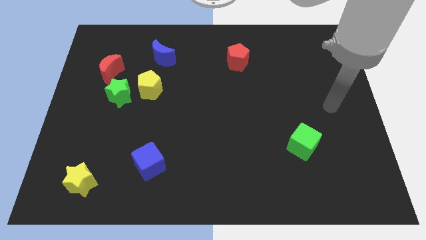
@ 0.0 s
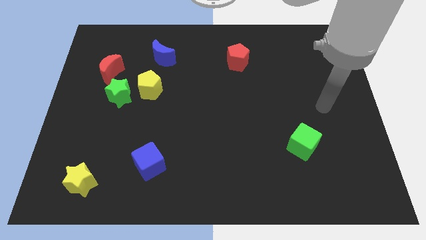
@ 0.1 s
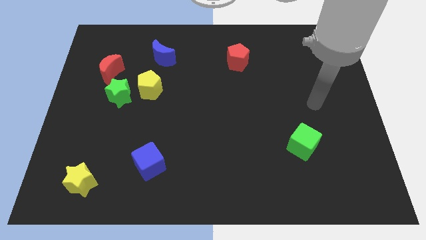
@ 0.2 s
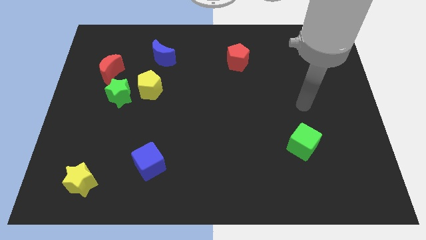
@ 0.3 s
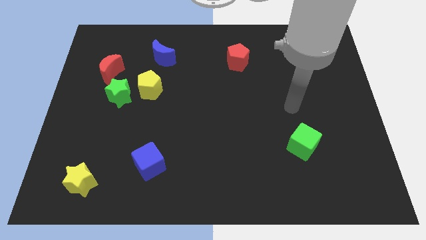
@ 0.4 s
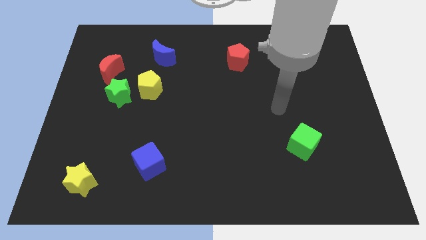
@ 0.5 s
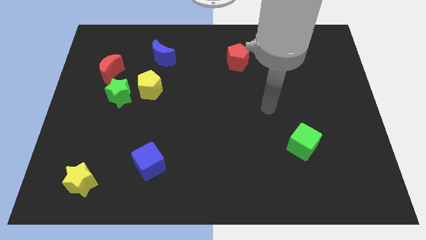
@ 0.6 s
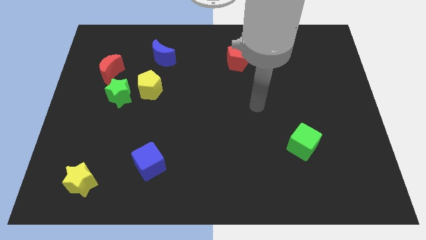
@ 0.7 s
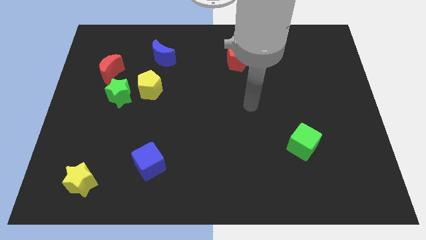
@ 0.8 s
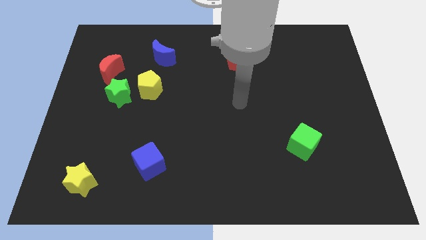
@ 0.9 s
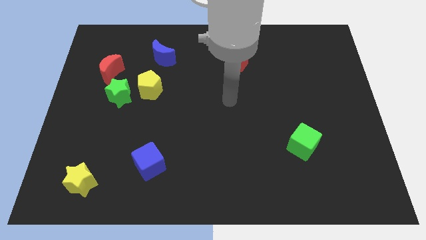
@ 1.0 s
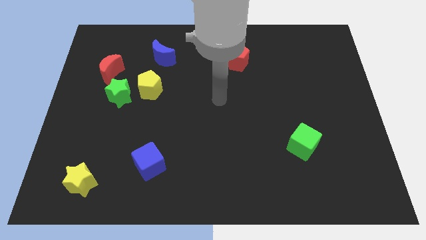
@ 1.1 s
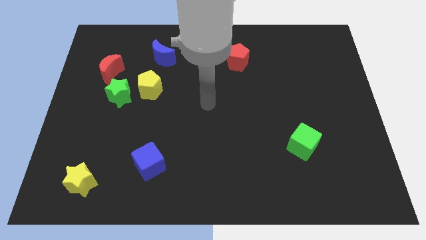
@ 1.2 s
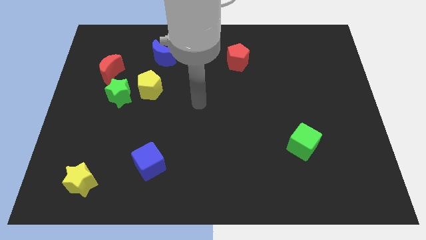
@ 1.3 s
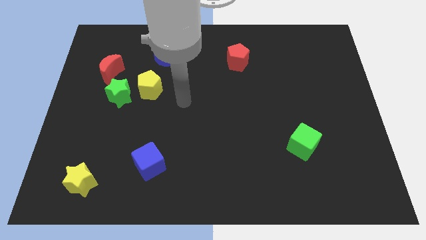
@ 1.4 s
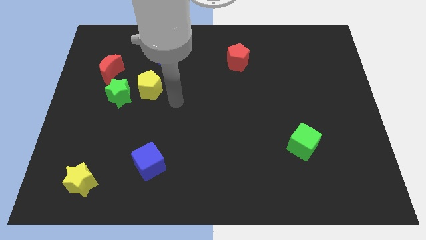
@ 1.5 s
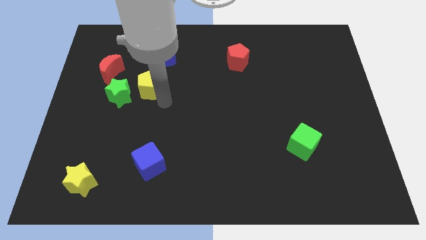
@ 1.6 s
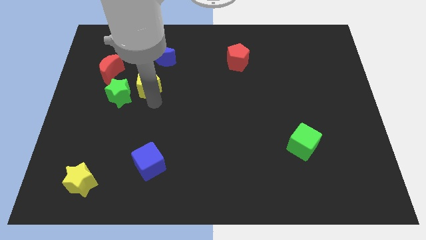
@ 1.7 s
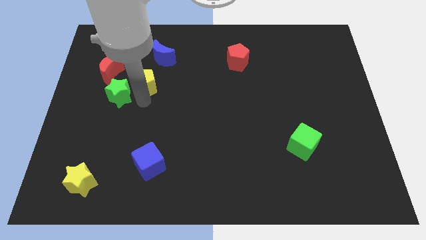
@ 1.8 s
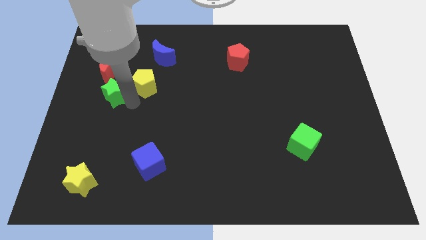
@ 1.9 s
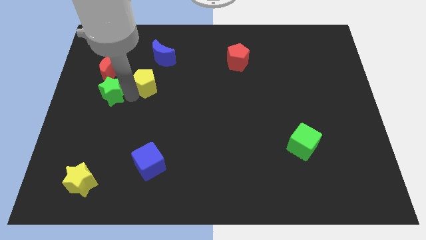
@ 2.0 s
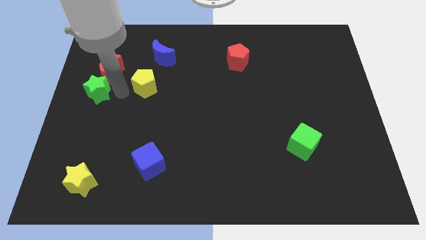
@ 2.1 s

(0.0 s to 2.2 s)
move the yellow pentagon away from the green star

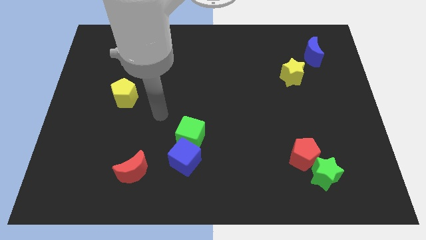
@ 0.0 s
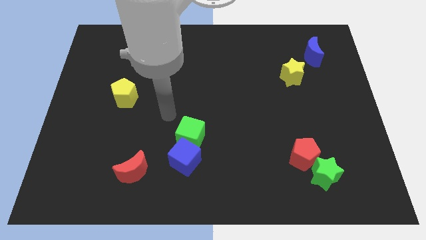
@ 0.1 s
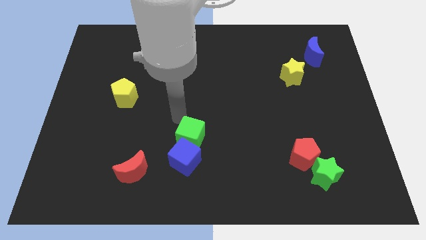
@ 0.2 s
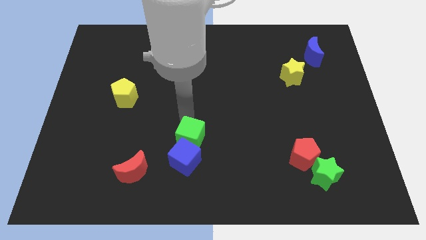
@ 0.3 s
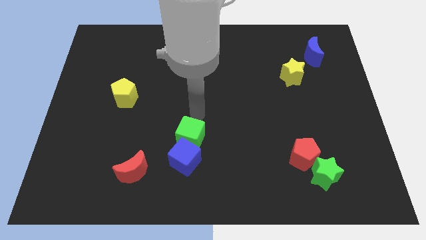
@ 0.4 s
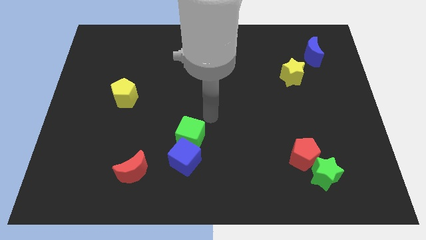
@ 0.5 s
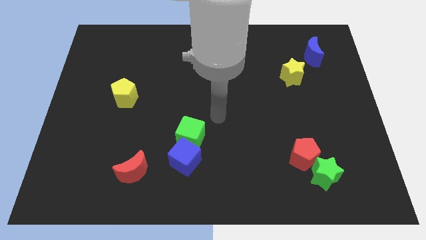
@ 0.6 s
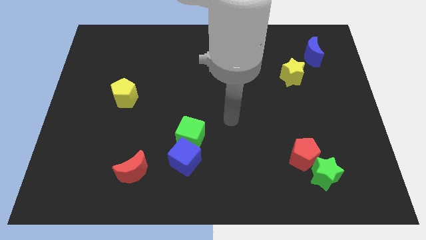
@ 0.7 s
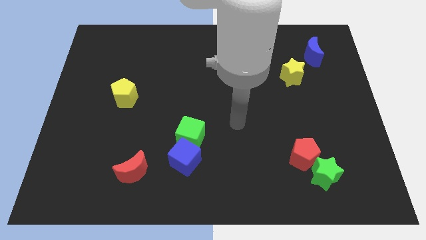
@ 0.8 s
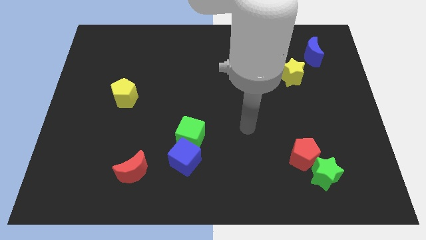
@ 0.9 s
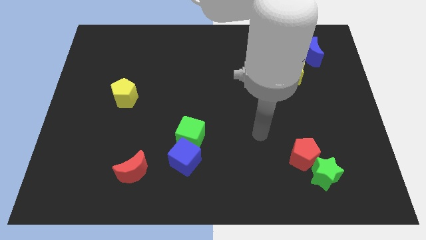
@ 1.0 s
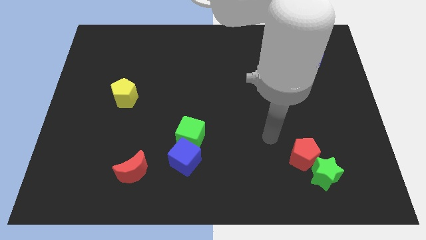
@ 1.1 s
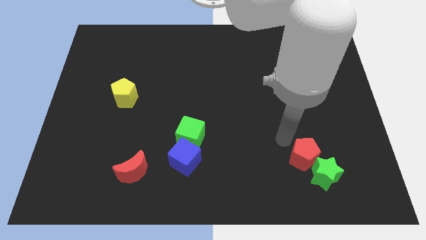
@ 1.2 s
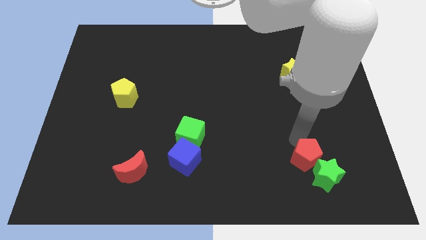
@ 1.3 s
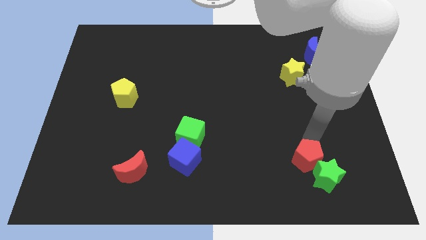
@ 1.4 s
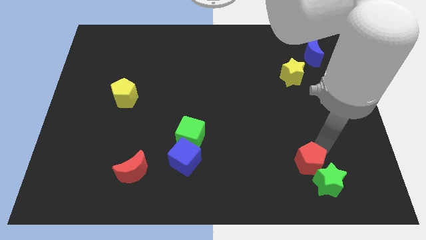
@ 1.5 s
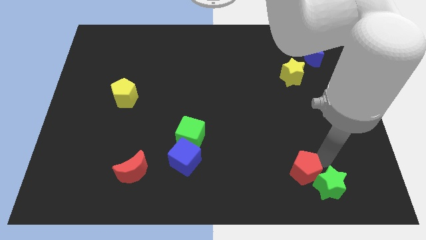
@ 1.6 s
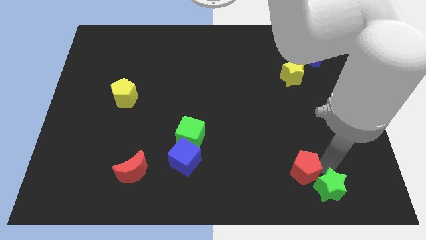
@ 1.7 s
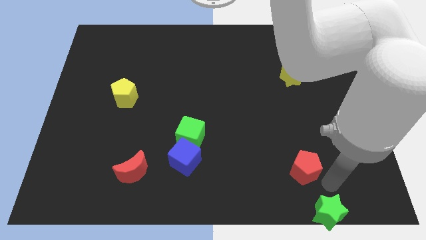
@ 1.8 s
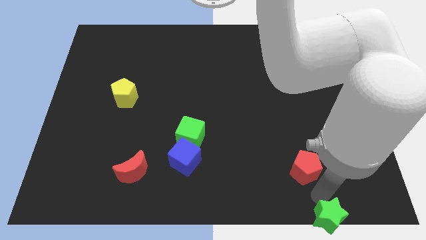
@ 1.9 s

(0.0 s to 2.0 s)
separate the red pentagon from the green star

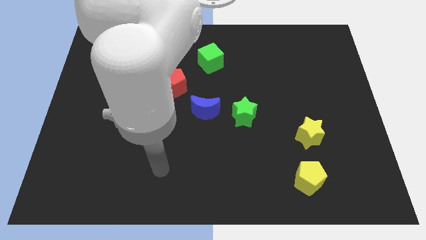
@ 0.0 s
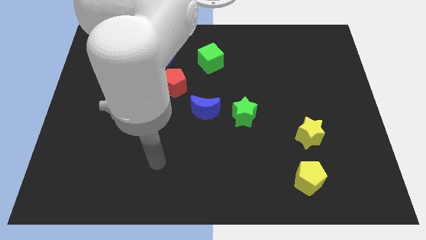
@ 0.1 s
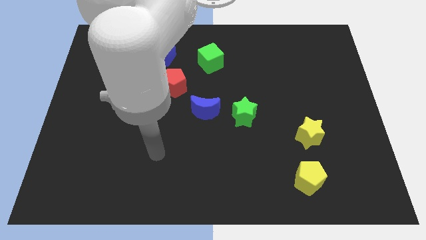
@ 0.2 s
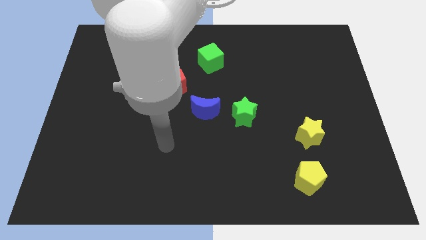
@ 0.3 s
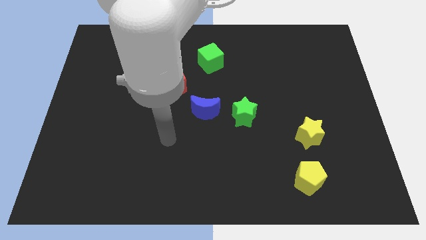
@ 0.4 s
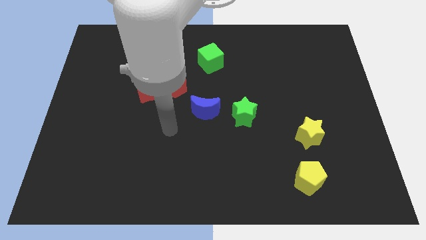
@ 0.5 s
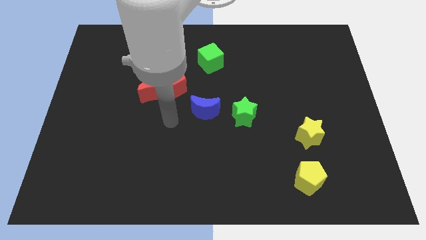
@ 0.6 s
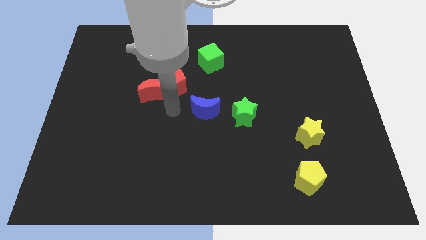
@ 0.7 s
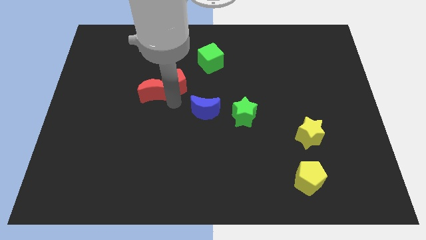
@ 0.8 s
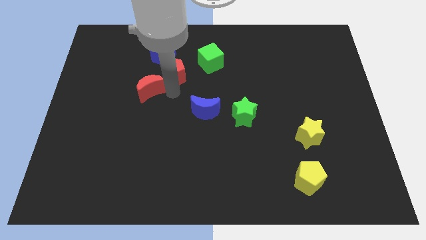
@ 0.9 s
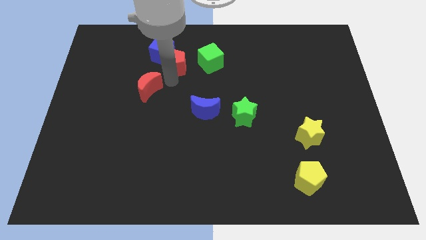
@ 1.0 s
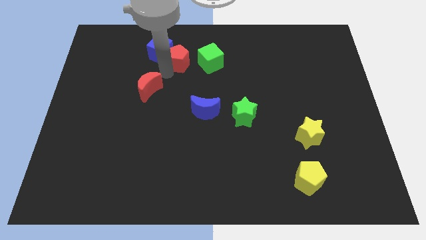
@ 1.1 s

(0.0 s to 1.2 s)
pull the red moon apart from the red pentagon

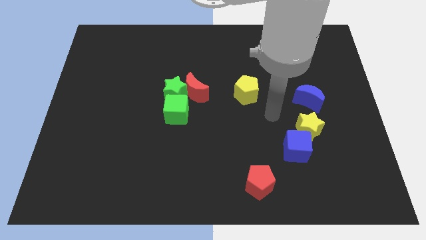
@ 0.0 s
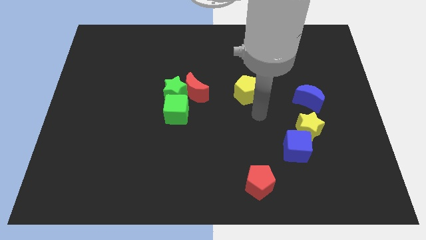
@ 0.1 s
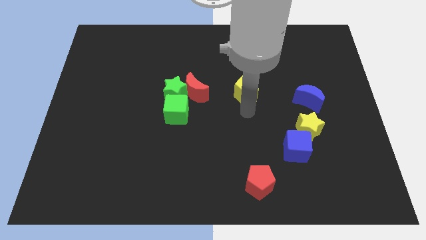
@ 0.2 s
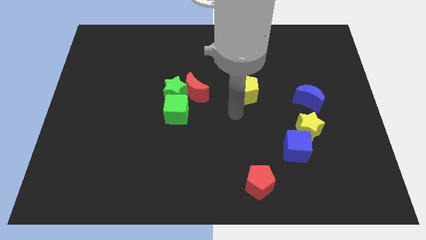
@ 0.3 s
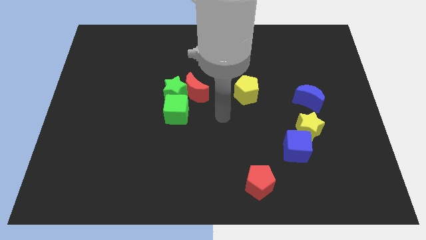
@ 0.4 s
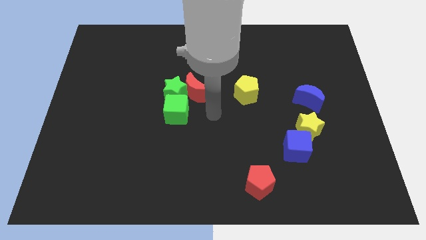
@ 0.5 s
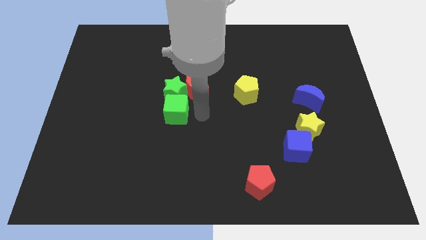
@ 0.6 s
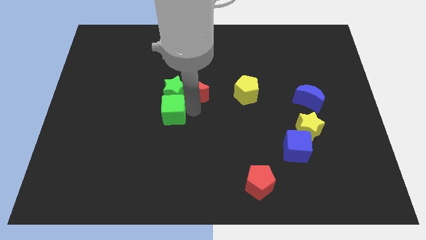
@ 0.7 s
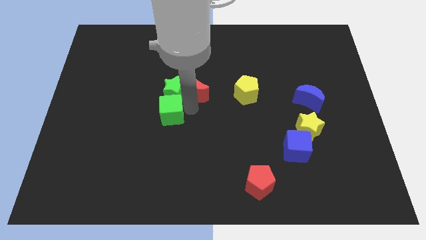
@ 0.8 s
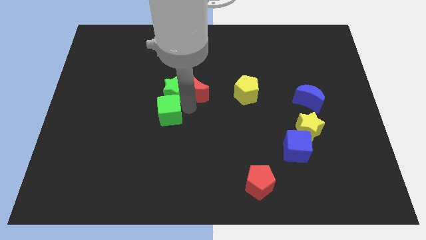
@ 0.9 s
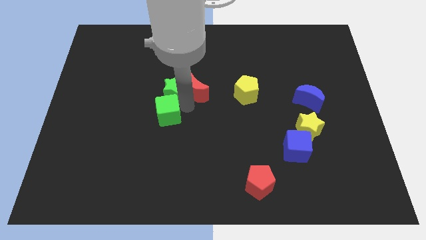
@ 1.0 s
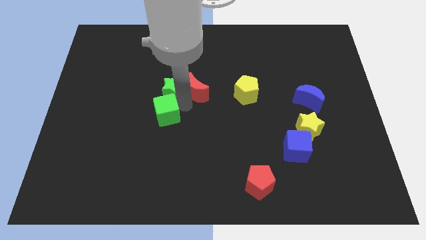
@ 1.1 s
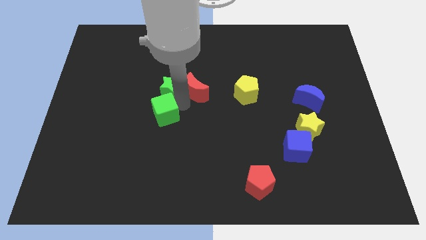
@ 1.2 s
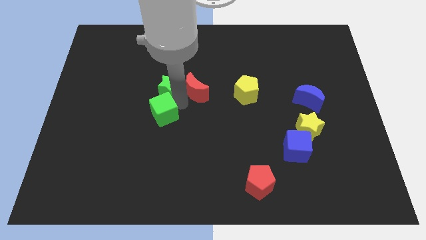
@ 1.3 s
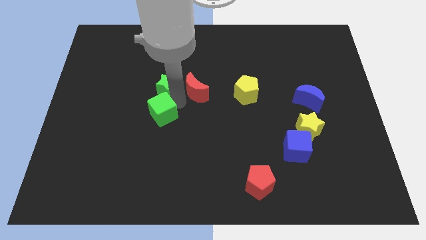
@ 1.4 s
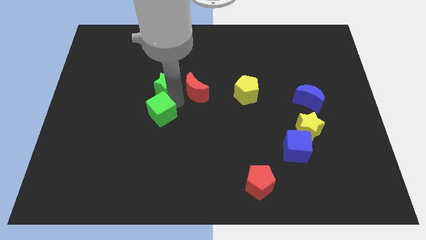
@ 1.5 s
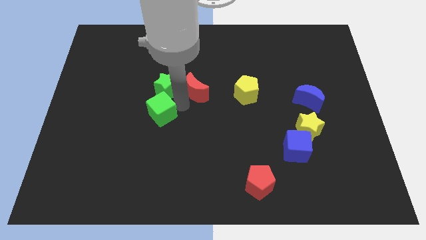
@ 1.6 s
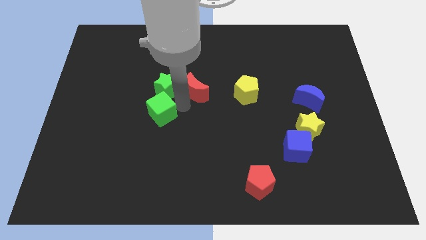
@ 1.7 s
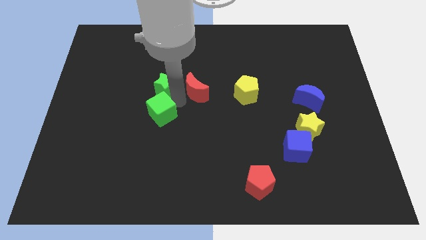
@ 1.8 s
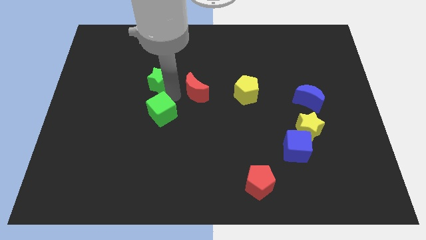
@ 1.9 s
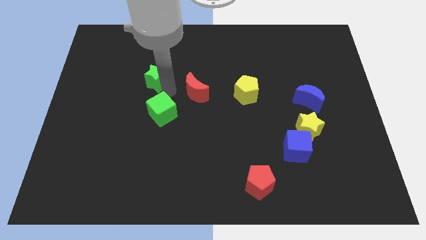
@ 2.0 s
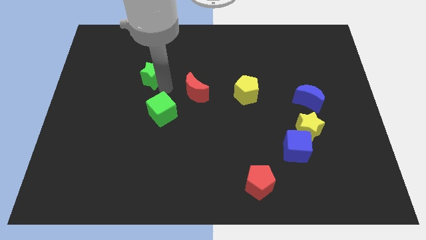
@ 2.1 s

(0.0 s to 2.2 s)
separate the green star from the red moon and green cube

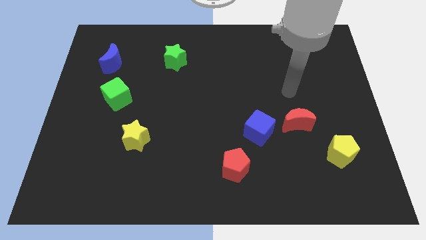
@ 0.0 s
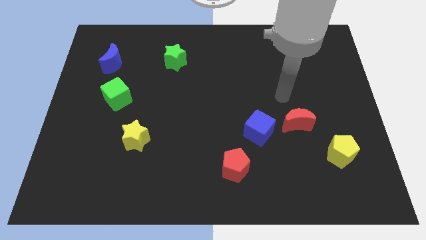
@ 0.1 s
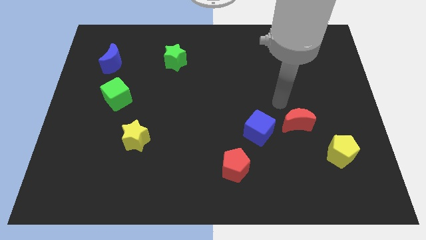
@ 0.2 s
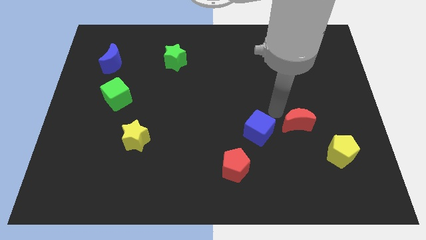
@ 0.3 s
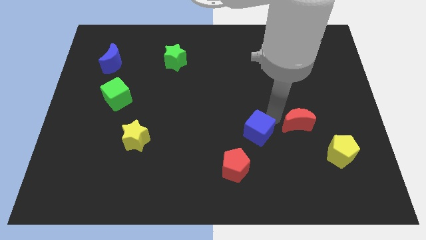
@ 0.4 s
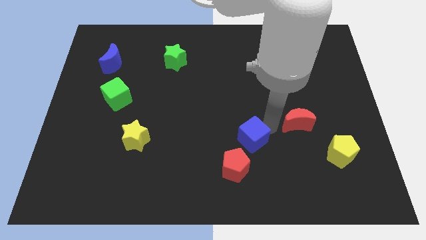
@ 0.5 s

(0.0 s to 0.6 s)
move the red moon away from the blue cube

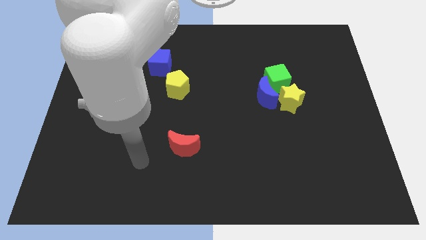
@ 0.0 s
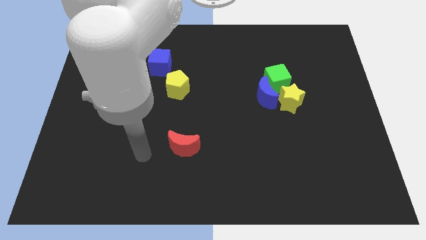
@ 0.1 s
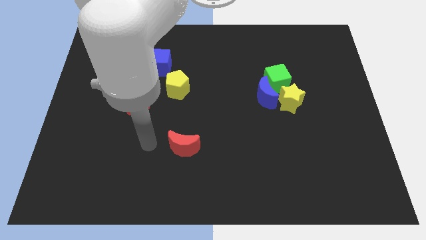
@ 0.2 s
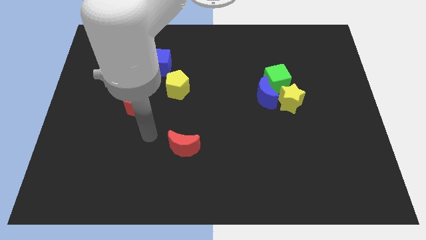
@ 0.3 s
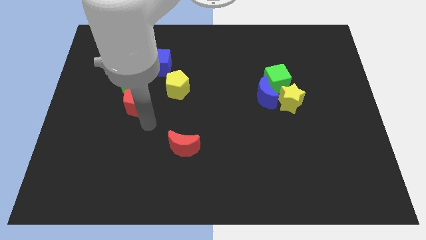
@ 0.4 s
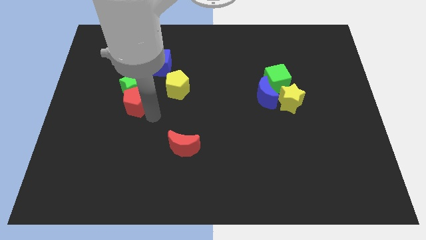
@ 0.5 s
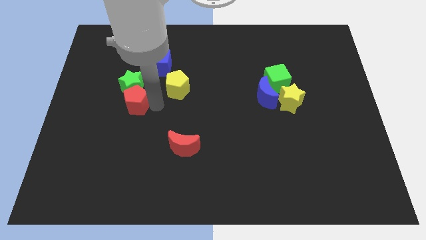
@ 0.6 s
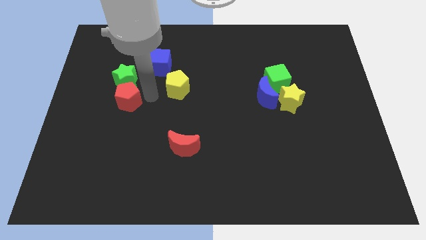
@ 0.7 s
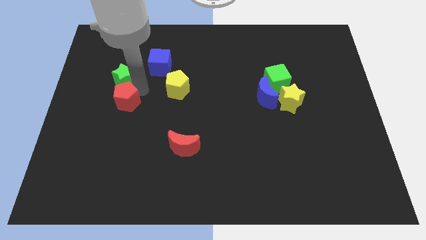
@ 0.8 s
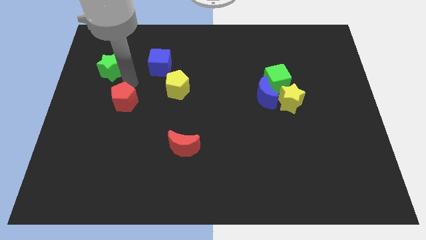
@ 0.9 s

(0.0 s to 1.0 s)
move the red pentagon away from the green star

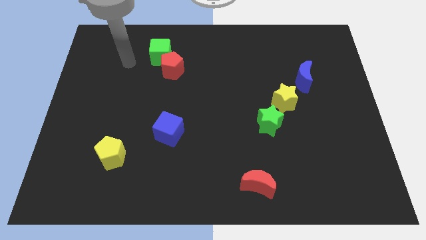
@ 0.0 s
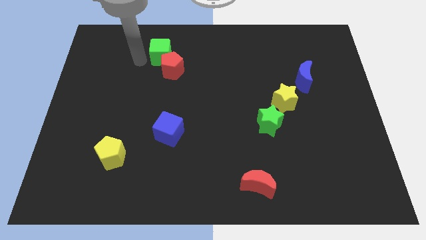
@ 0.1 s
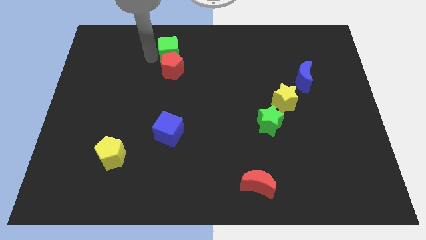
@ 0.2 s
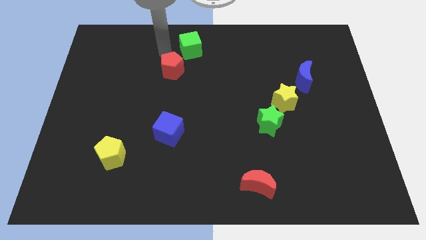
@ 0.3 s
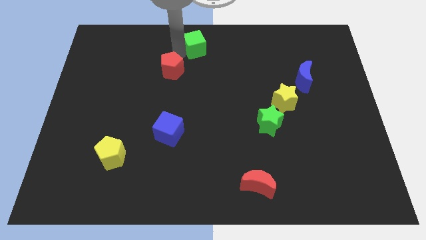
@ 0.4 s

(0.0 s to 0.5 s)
pull the red pentagon apart from the green cube
